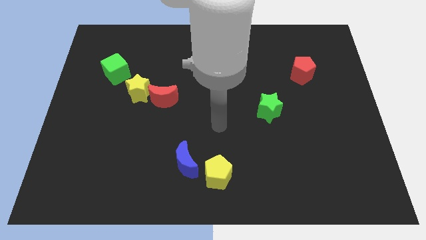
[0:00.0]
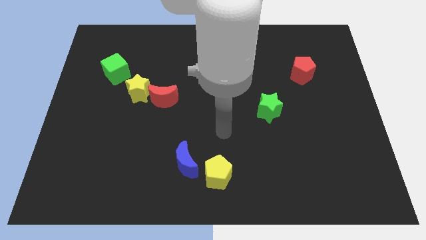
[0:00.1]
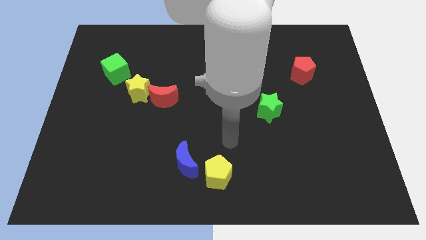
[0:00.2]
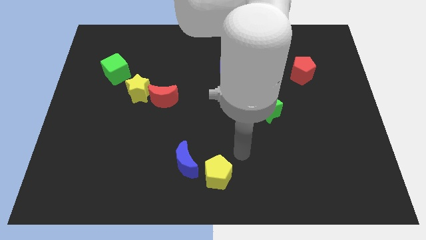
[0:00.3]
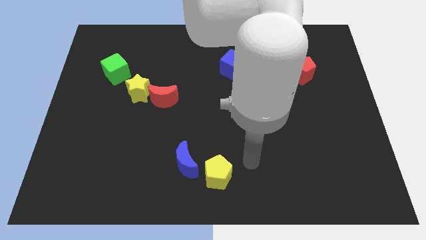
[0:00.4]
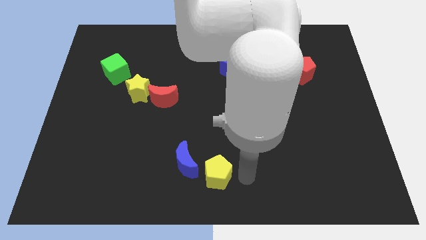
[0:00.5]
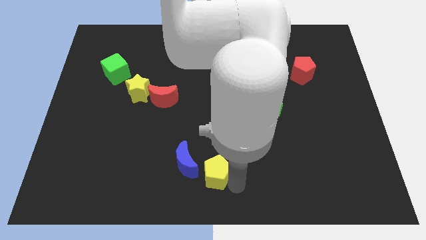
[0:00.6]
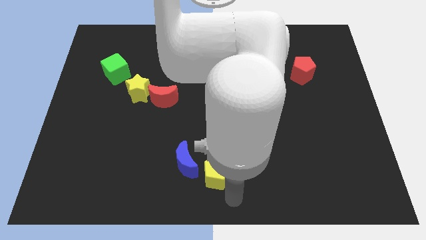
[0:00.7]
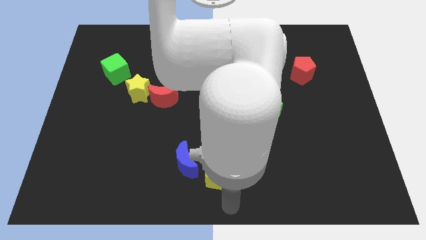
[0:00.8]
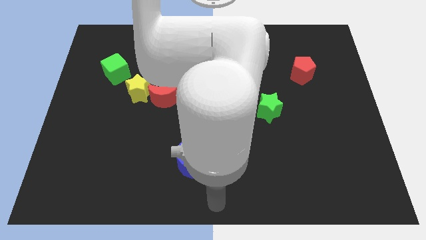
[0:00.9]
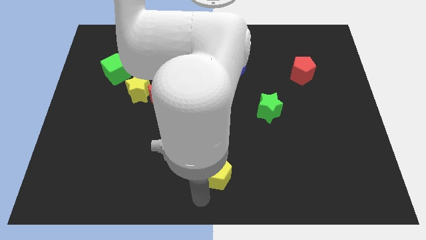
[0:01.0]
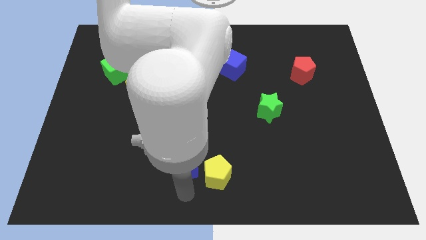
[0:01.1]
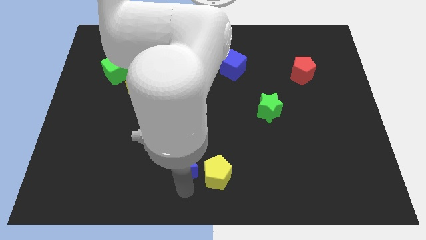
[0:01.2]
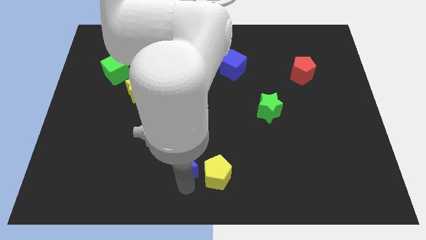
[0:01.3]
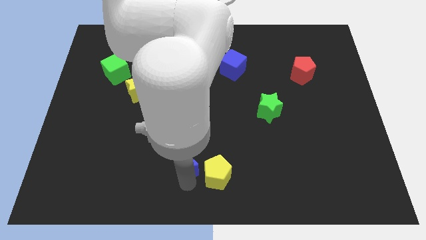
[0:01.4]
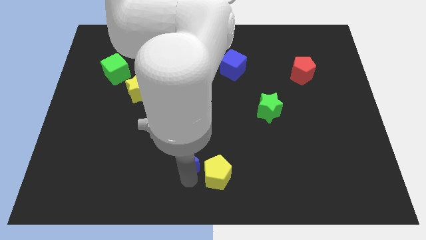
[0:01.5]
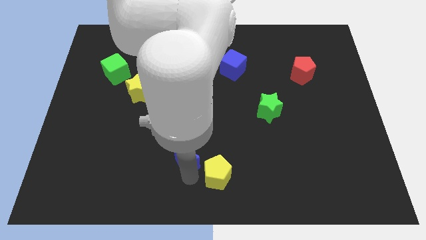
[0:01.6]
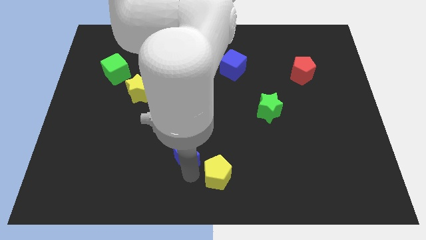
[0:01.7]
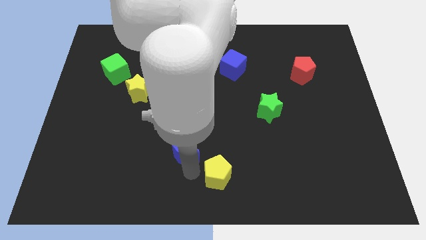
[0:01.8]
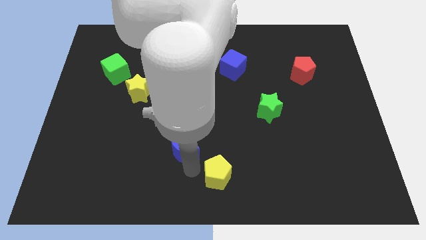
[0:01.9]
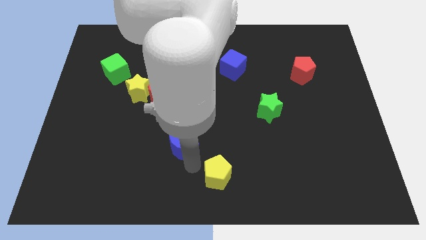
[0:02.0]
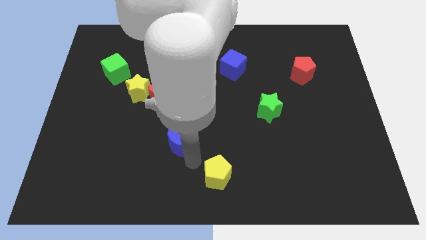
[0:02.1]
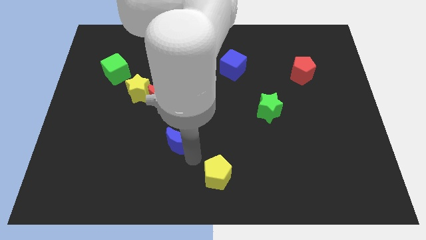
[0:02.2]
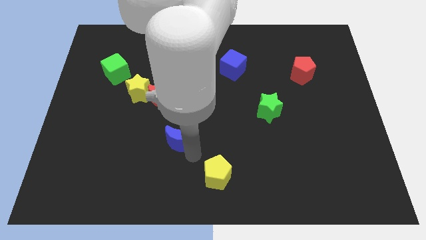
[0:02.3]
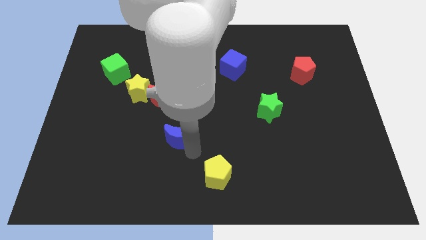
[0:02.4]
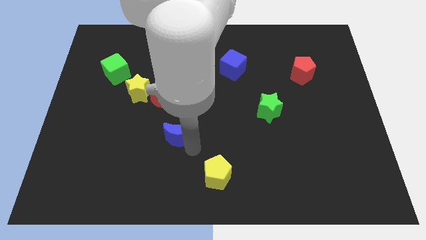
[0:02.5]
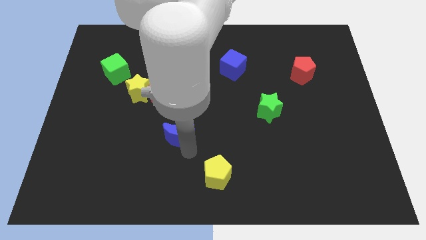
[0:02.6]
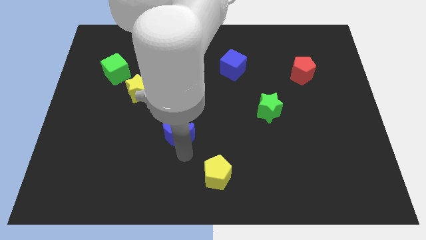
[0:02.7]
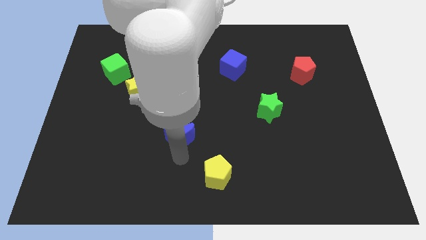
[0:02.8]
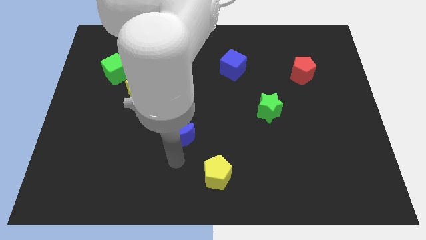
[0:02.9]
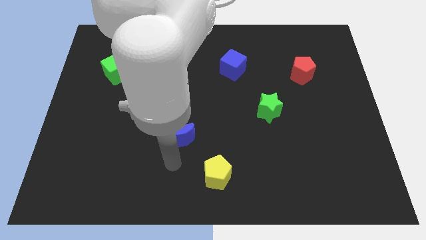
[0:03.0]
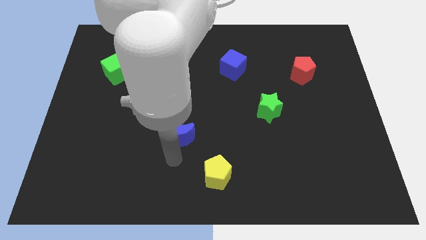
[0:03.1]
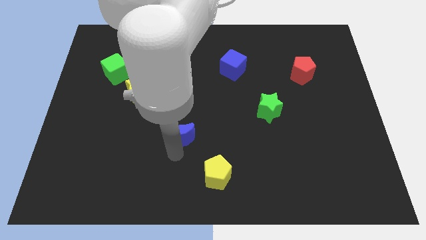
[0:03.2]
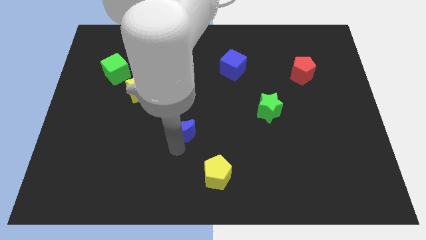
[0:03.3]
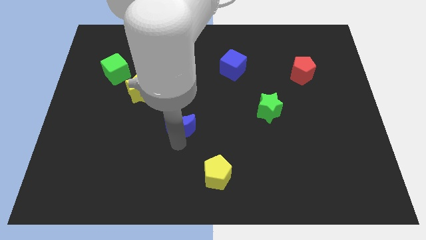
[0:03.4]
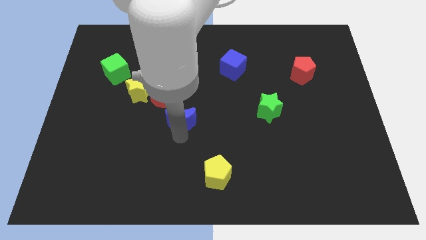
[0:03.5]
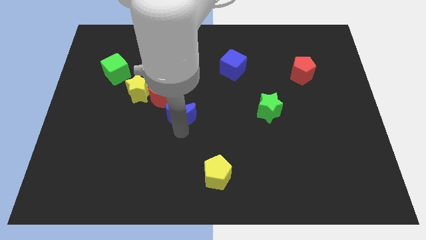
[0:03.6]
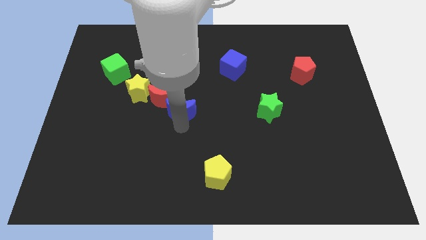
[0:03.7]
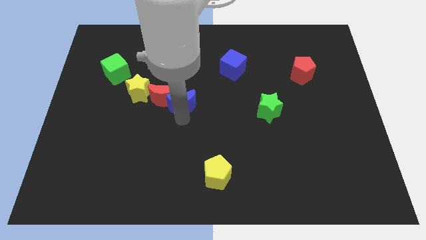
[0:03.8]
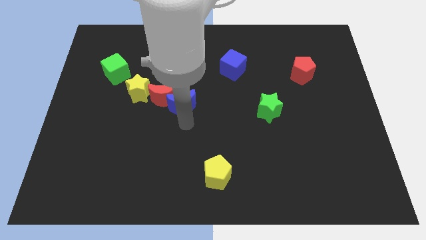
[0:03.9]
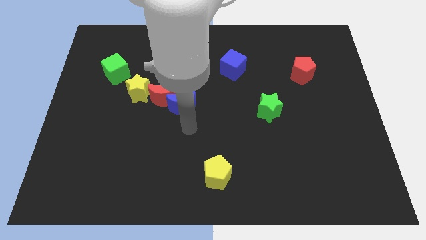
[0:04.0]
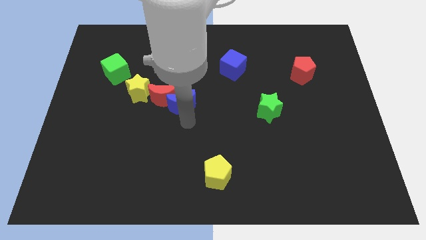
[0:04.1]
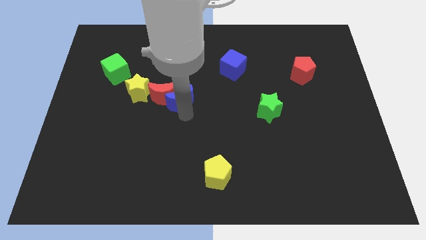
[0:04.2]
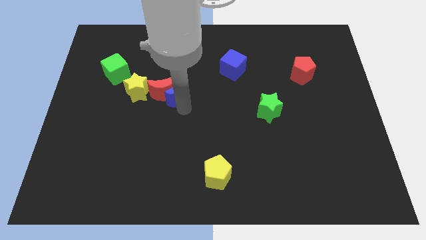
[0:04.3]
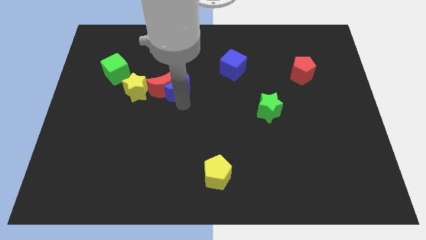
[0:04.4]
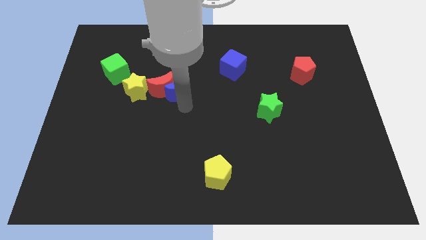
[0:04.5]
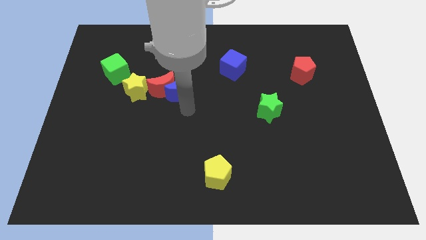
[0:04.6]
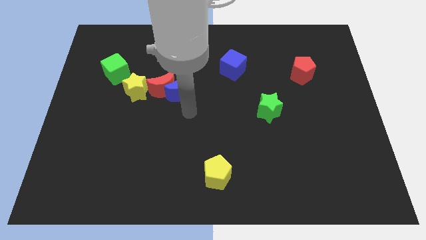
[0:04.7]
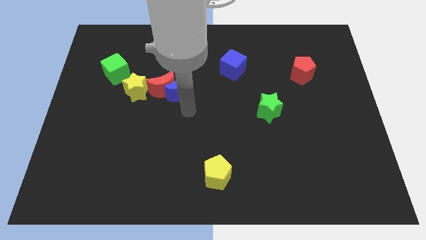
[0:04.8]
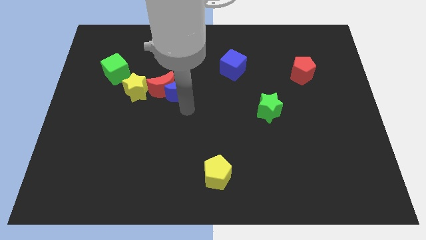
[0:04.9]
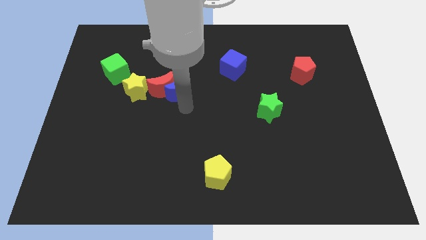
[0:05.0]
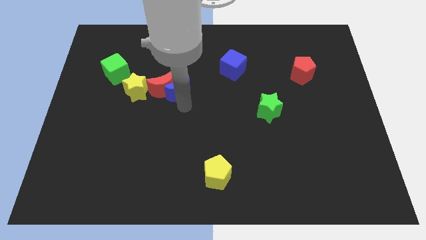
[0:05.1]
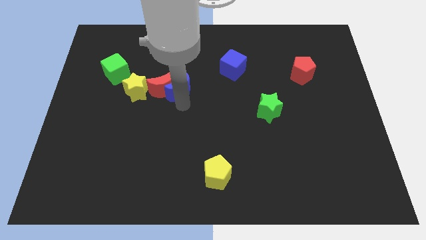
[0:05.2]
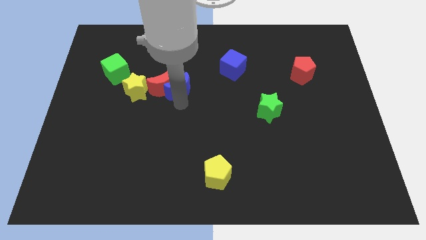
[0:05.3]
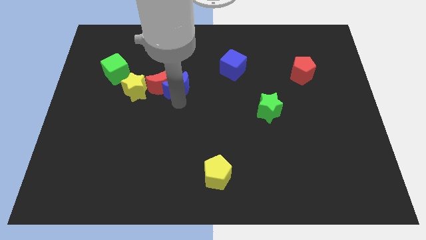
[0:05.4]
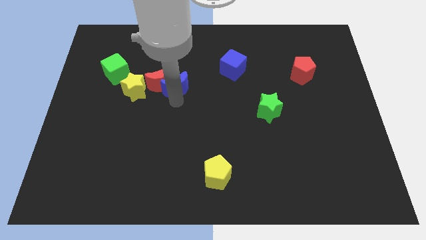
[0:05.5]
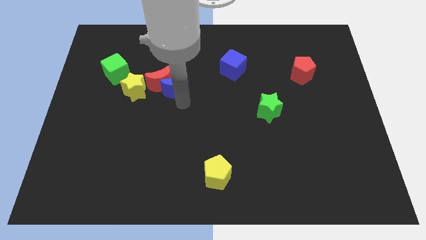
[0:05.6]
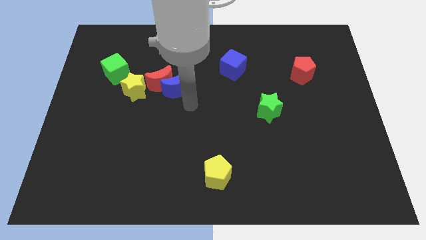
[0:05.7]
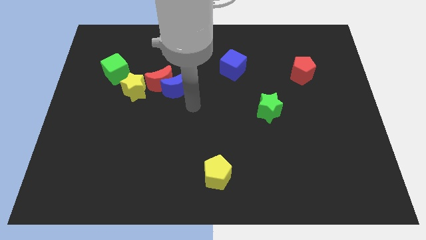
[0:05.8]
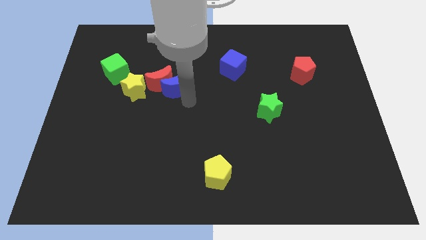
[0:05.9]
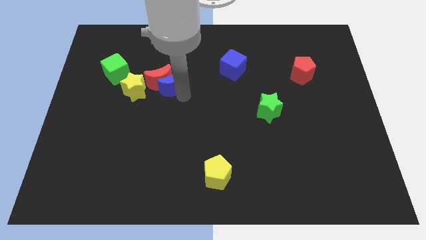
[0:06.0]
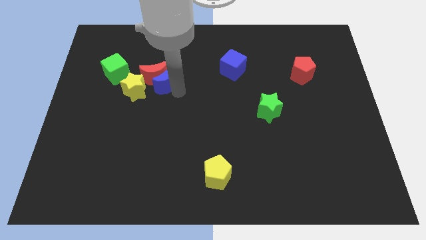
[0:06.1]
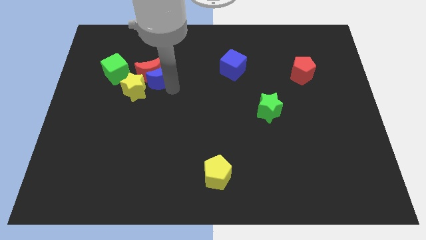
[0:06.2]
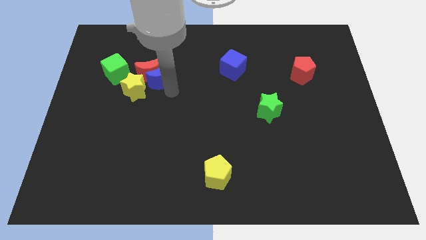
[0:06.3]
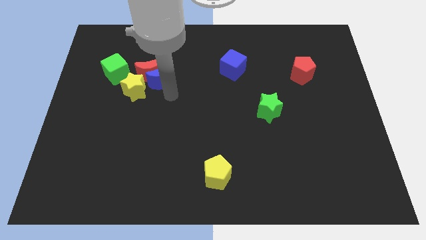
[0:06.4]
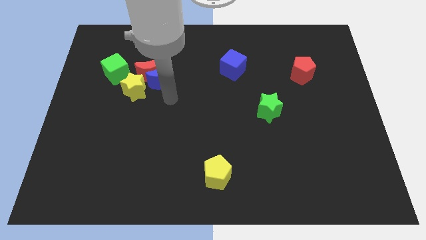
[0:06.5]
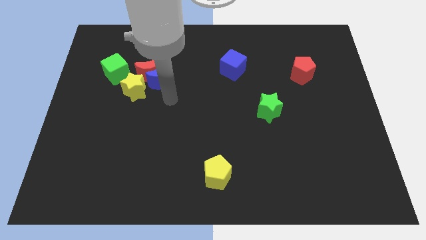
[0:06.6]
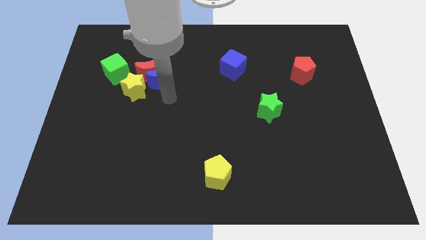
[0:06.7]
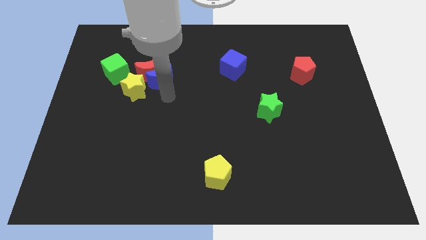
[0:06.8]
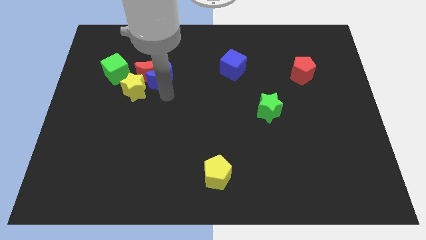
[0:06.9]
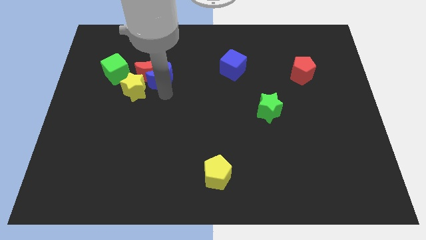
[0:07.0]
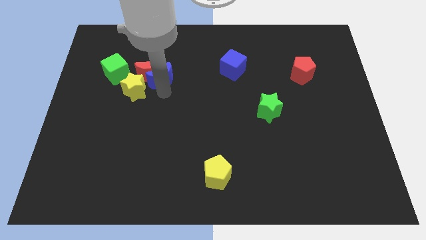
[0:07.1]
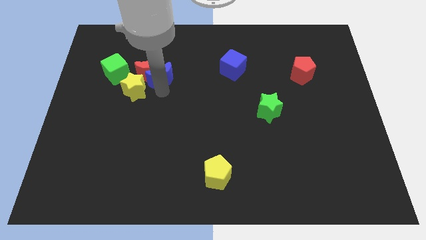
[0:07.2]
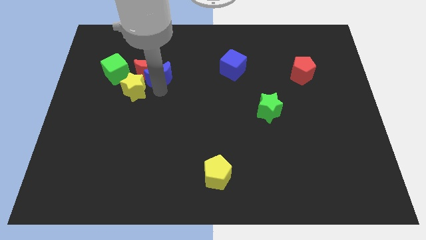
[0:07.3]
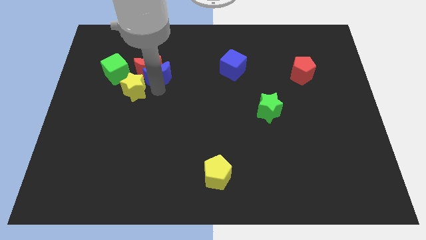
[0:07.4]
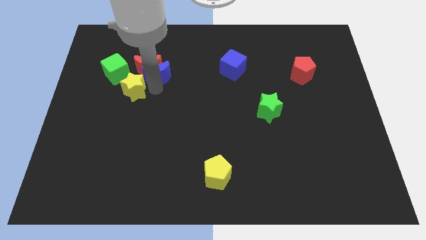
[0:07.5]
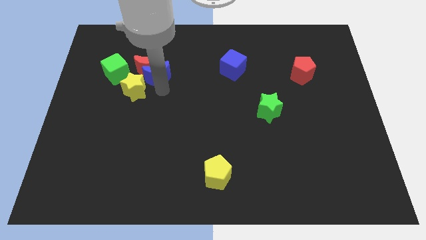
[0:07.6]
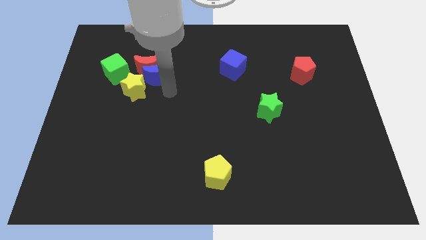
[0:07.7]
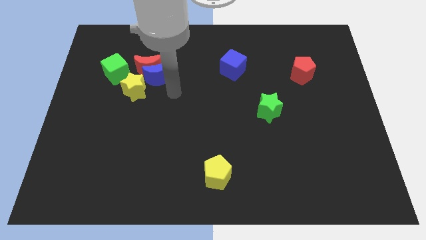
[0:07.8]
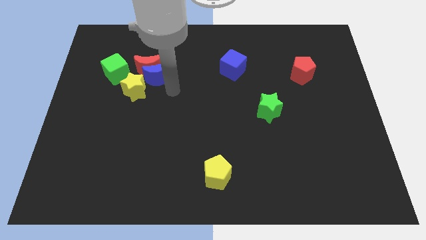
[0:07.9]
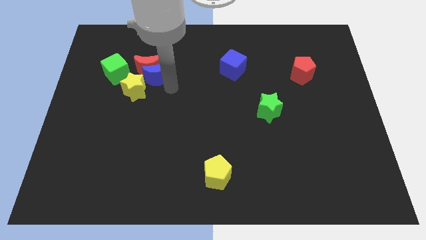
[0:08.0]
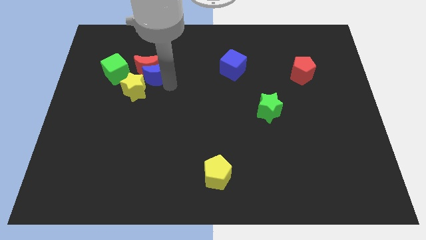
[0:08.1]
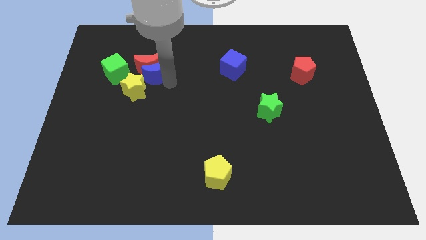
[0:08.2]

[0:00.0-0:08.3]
put the blue moon above the yellow star
